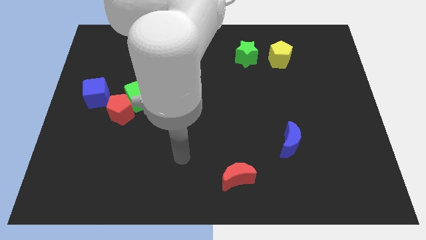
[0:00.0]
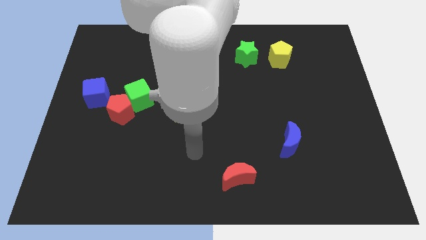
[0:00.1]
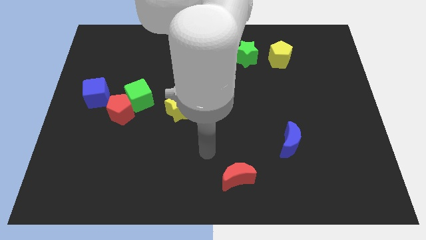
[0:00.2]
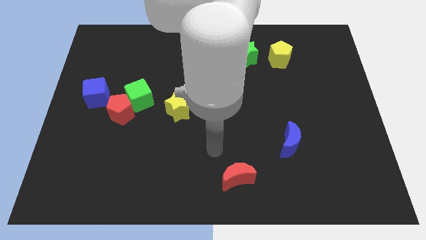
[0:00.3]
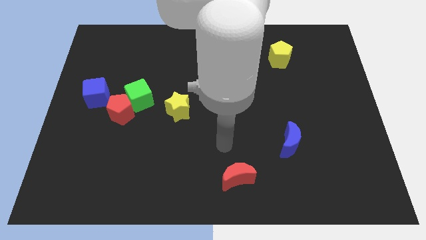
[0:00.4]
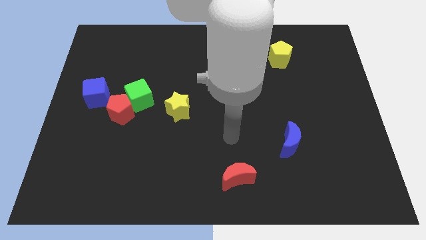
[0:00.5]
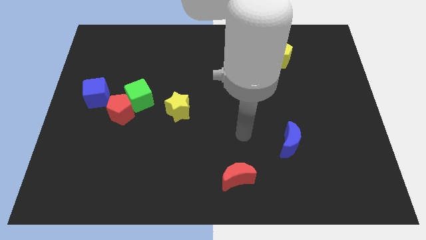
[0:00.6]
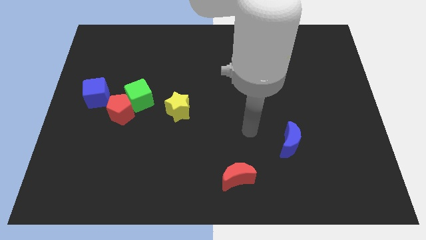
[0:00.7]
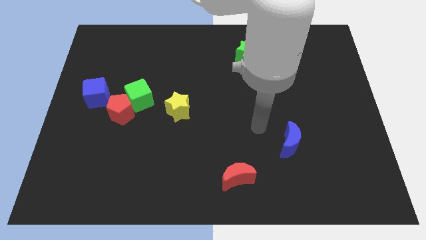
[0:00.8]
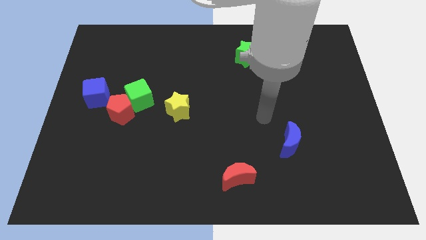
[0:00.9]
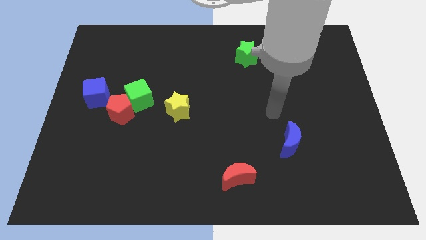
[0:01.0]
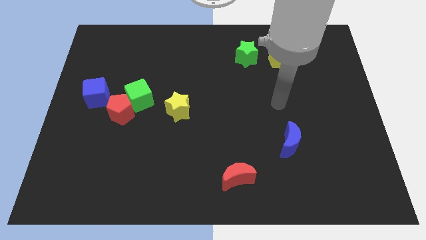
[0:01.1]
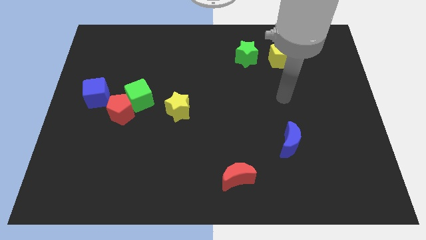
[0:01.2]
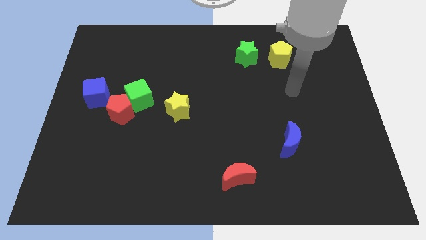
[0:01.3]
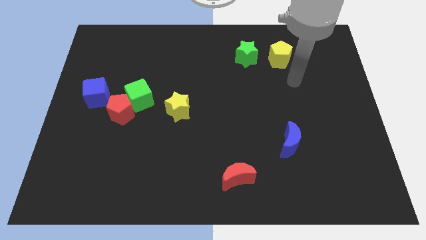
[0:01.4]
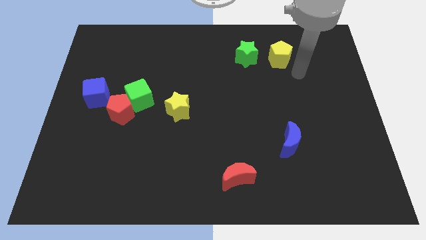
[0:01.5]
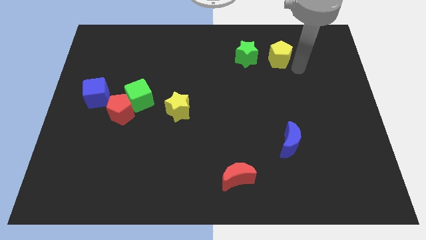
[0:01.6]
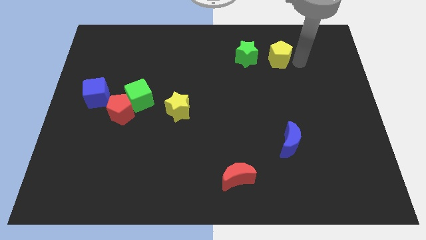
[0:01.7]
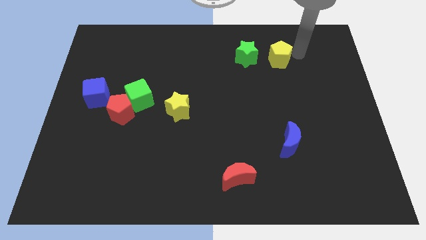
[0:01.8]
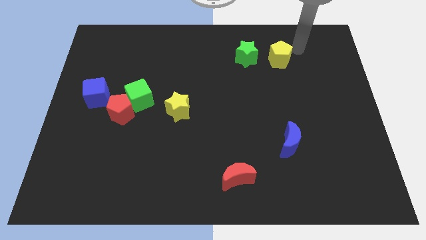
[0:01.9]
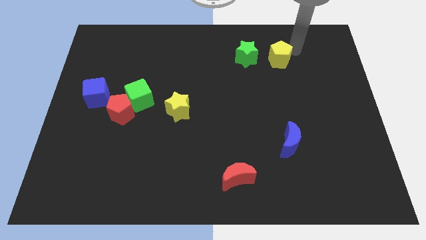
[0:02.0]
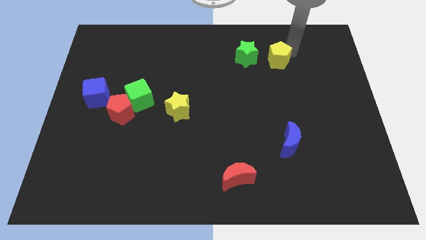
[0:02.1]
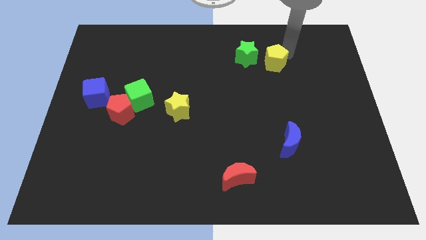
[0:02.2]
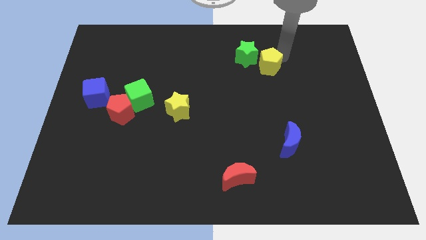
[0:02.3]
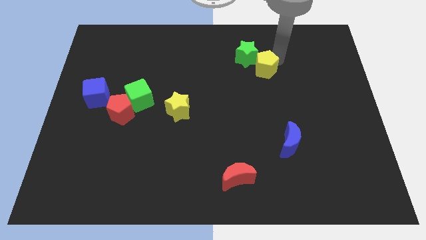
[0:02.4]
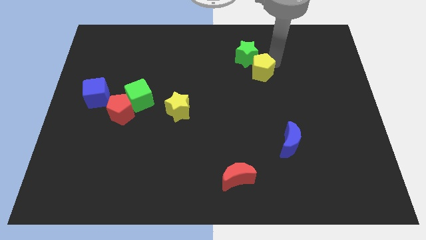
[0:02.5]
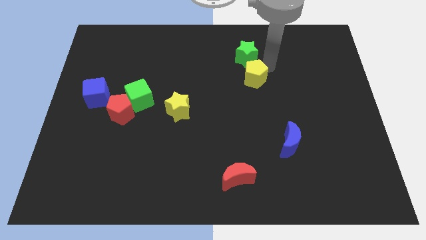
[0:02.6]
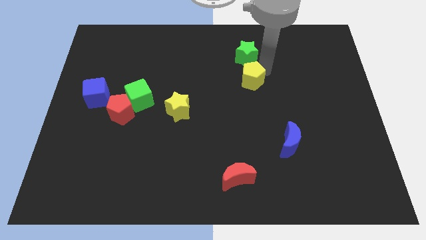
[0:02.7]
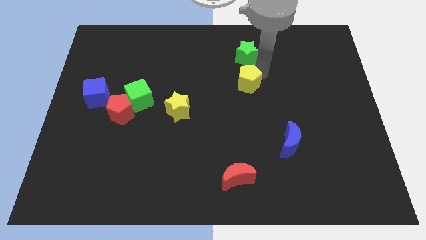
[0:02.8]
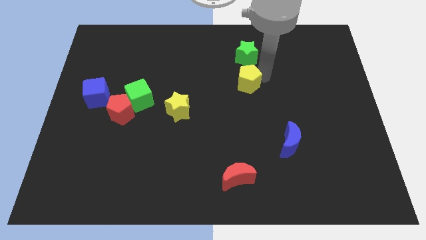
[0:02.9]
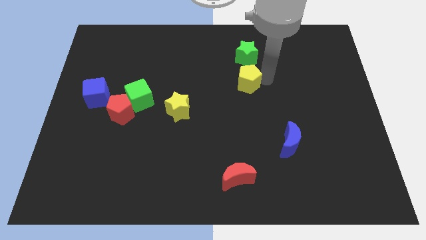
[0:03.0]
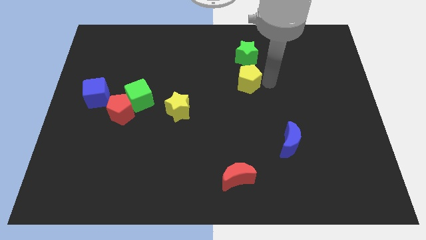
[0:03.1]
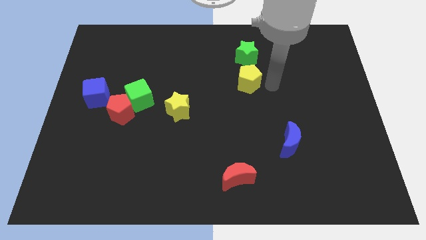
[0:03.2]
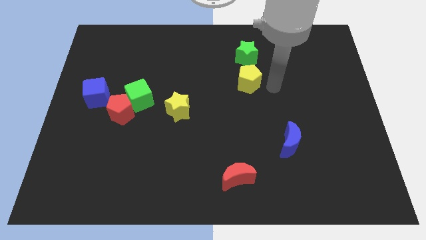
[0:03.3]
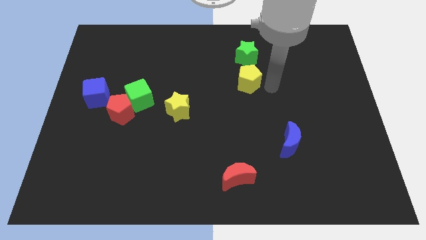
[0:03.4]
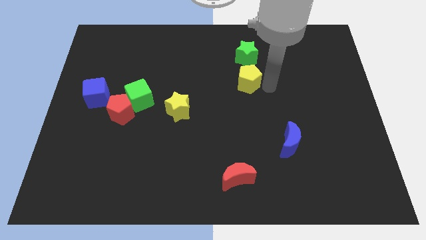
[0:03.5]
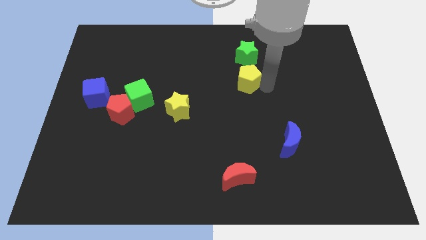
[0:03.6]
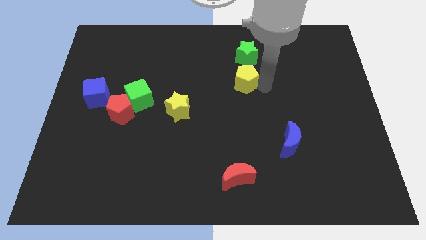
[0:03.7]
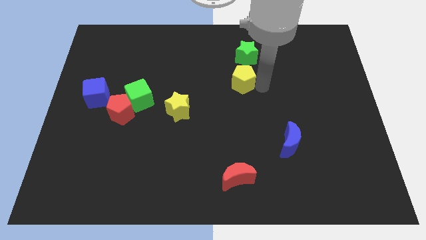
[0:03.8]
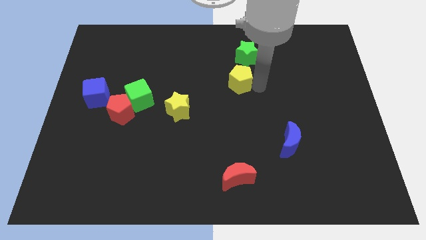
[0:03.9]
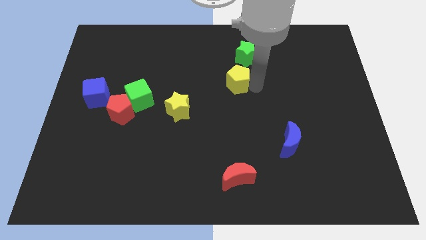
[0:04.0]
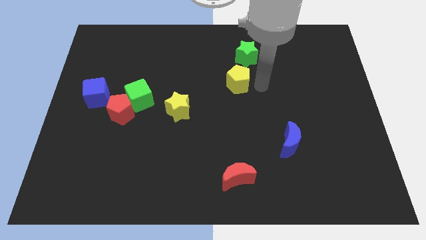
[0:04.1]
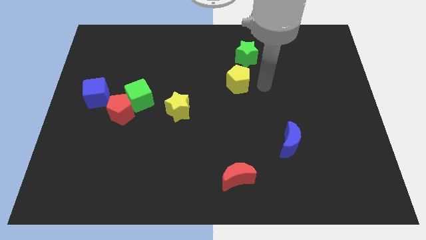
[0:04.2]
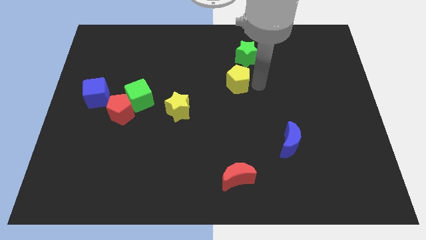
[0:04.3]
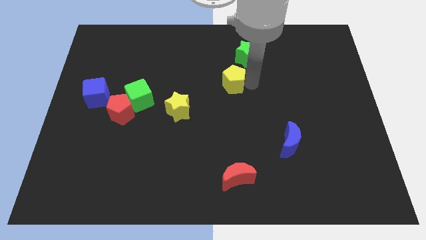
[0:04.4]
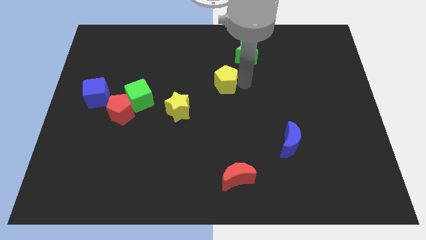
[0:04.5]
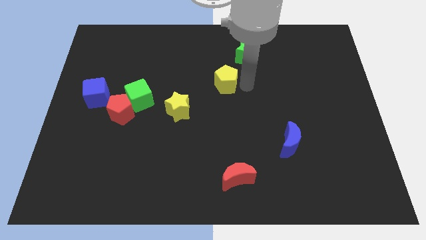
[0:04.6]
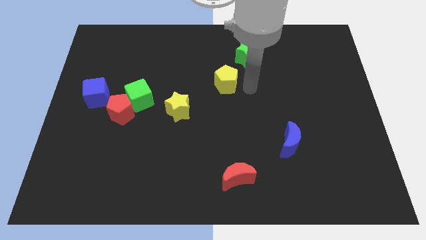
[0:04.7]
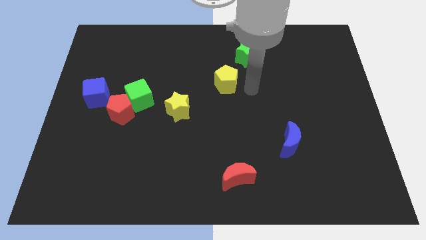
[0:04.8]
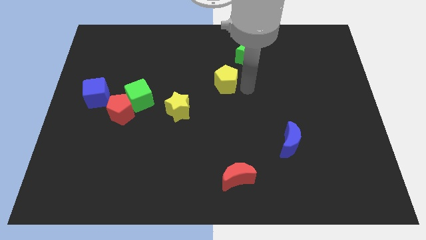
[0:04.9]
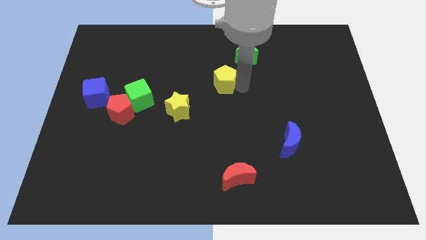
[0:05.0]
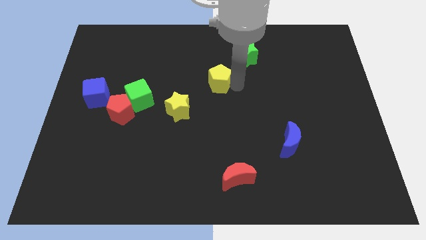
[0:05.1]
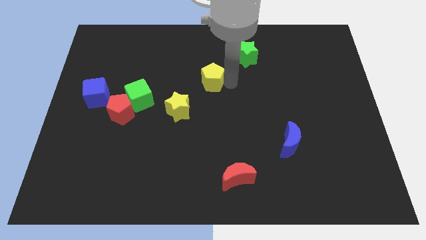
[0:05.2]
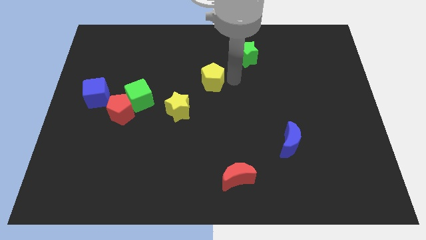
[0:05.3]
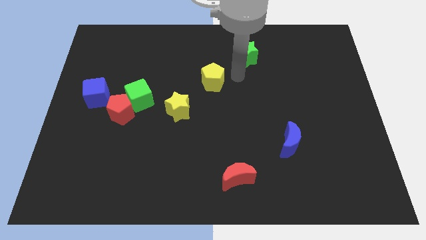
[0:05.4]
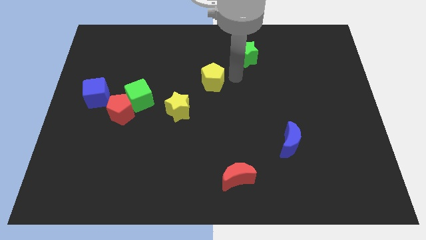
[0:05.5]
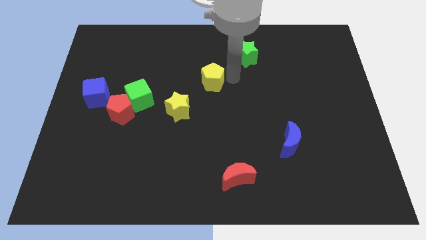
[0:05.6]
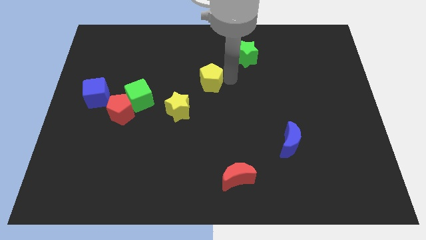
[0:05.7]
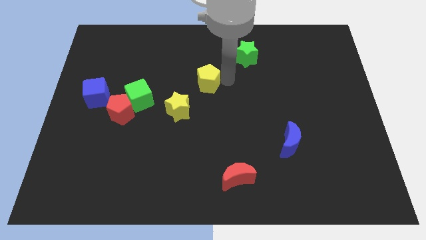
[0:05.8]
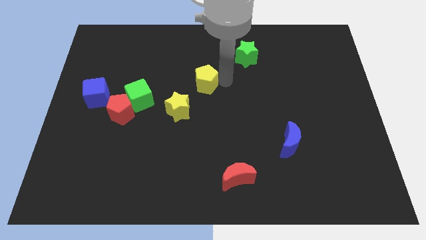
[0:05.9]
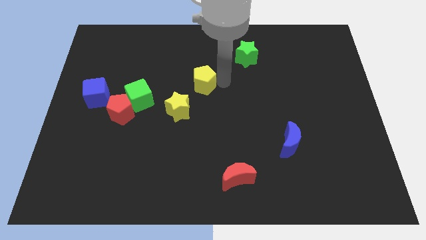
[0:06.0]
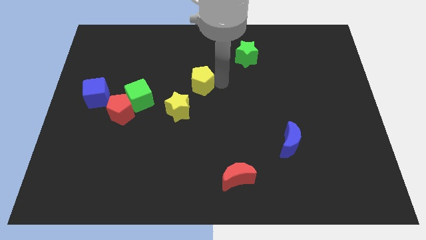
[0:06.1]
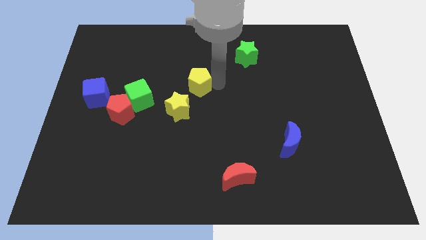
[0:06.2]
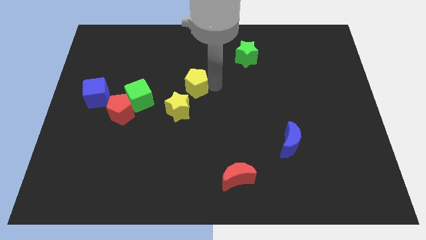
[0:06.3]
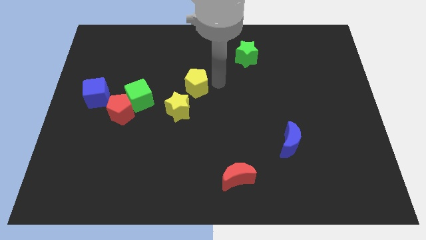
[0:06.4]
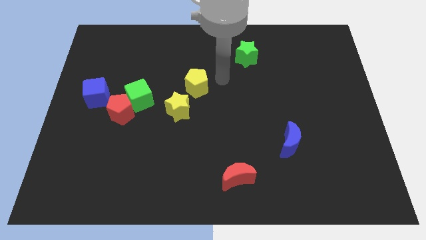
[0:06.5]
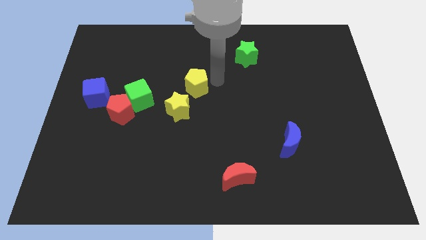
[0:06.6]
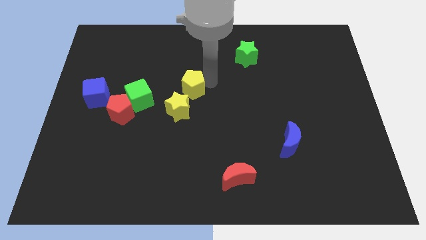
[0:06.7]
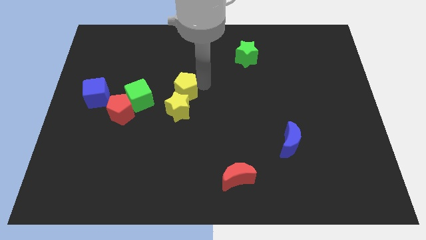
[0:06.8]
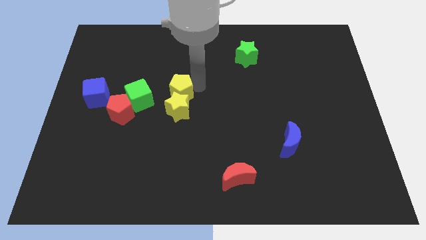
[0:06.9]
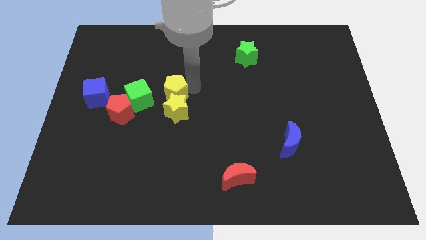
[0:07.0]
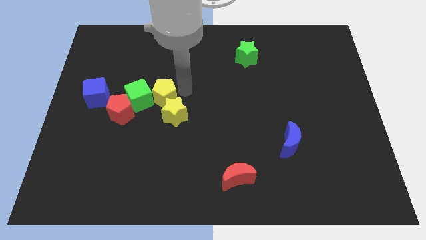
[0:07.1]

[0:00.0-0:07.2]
put the yellow pentagon to the green cube
